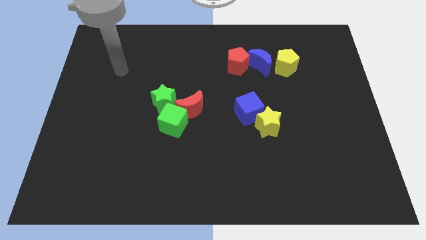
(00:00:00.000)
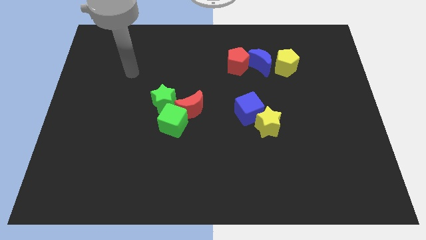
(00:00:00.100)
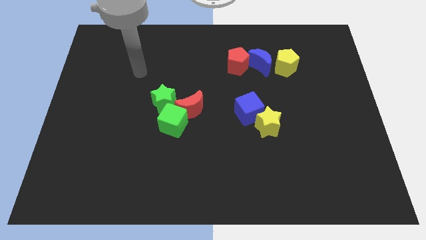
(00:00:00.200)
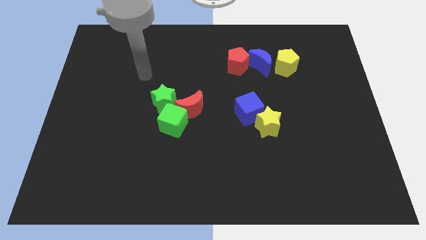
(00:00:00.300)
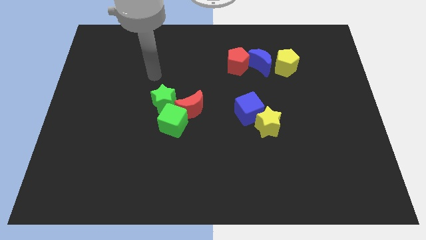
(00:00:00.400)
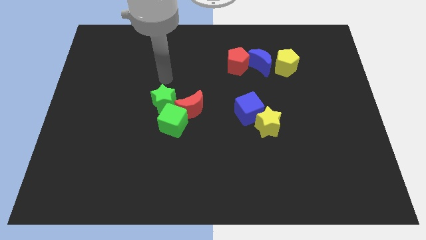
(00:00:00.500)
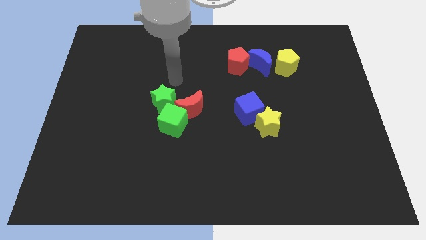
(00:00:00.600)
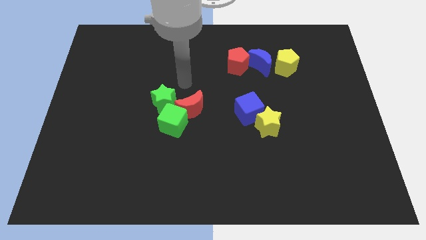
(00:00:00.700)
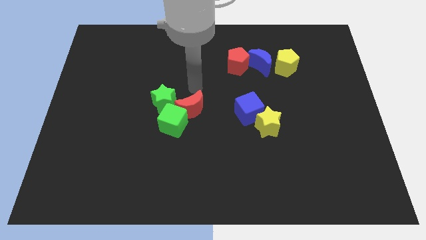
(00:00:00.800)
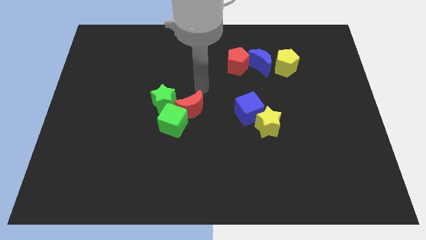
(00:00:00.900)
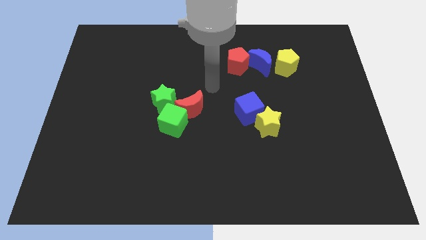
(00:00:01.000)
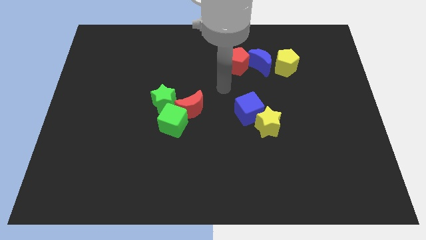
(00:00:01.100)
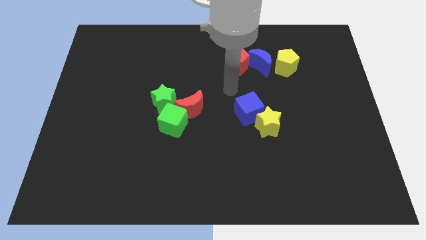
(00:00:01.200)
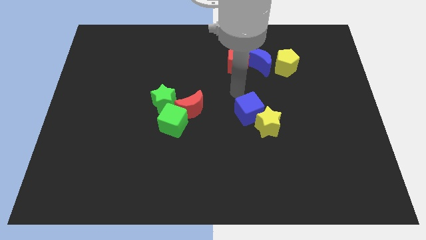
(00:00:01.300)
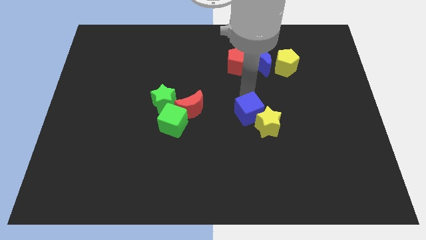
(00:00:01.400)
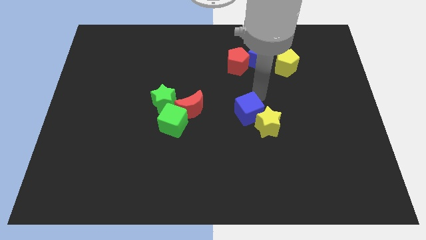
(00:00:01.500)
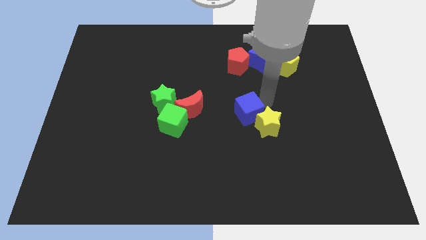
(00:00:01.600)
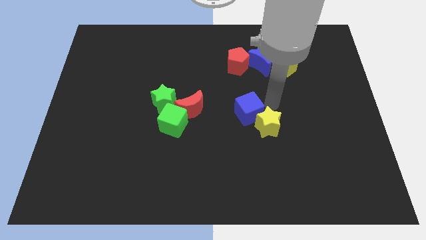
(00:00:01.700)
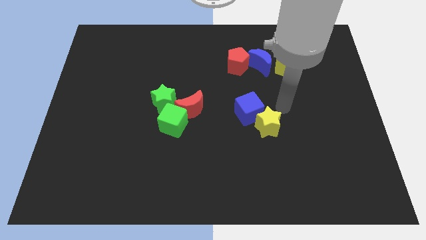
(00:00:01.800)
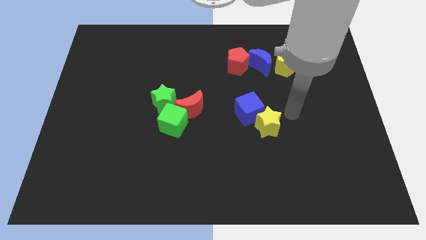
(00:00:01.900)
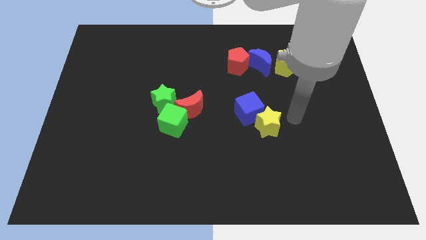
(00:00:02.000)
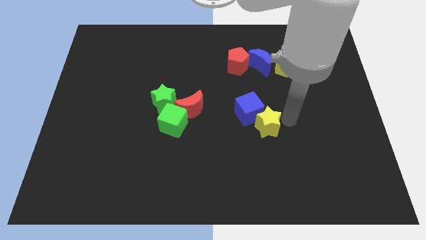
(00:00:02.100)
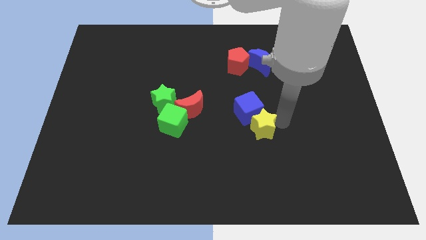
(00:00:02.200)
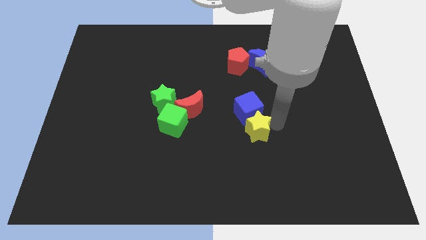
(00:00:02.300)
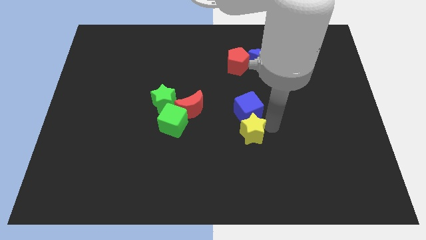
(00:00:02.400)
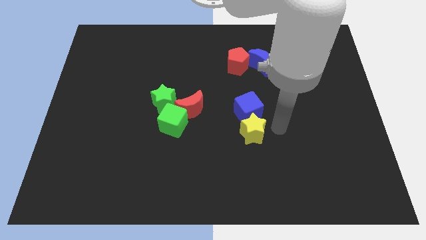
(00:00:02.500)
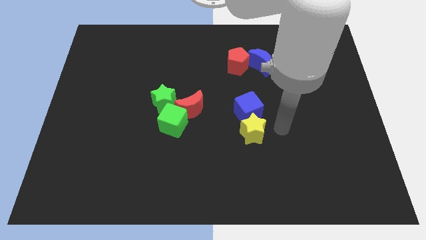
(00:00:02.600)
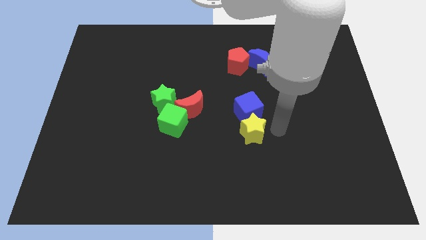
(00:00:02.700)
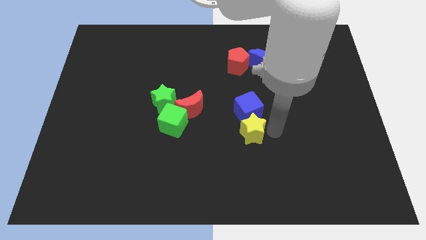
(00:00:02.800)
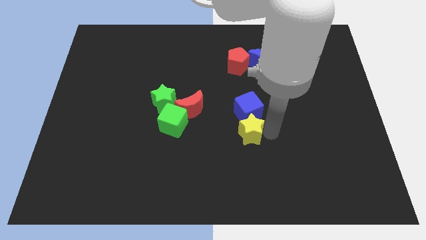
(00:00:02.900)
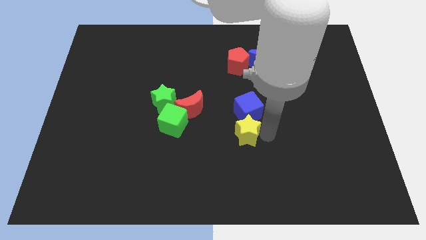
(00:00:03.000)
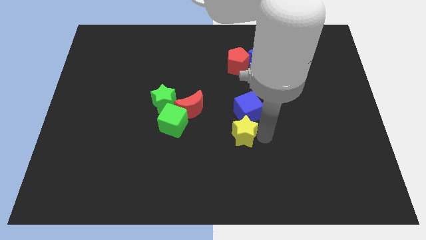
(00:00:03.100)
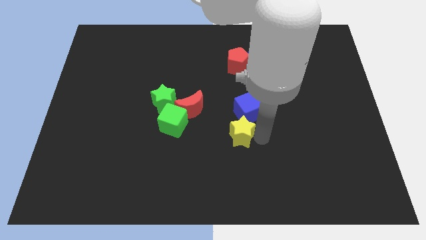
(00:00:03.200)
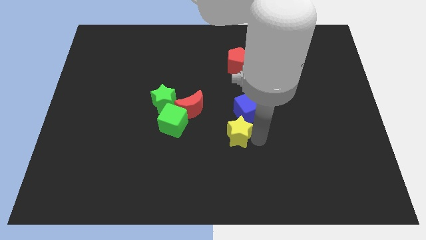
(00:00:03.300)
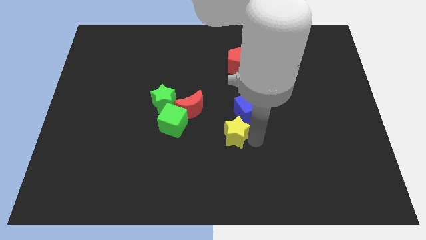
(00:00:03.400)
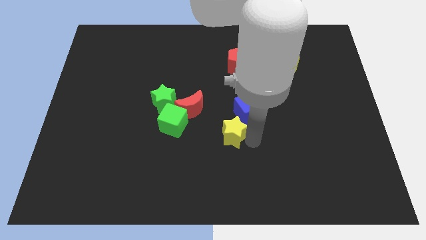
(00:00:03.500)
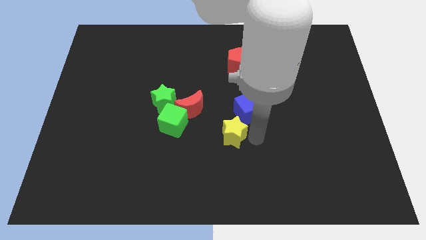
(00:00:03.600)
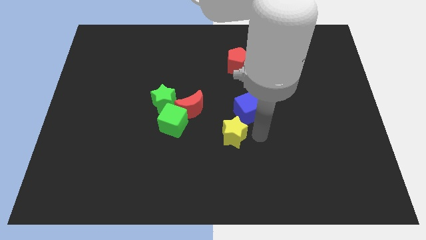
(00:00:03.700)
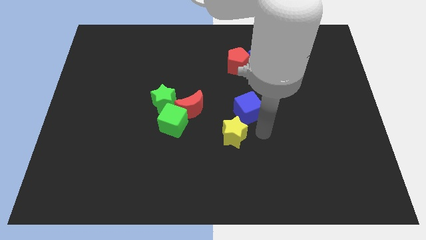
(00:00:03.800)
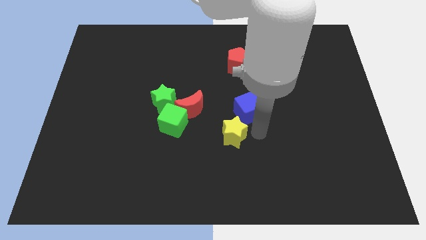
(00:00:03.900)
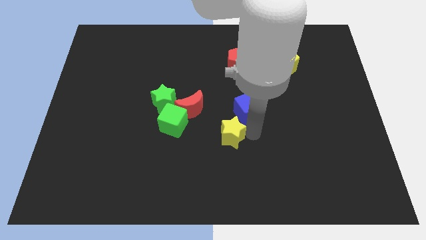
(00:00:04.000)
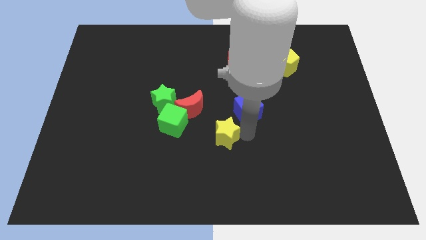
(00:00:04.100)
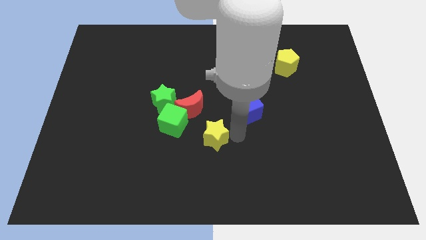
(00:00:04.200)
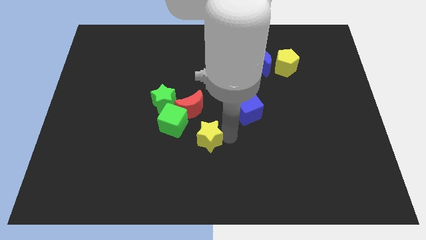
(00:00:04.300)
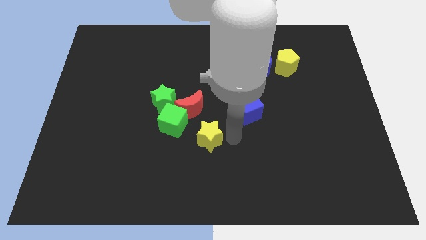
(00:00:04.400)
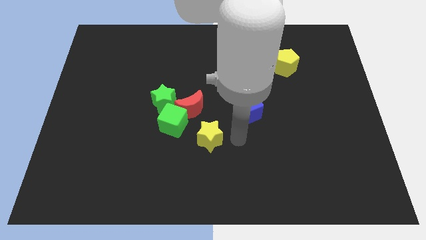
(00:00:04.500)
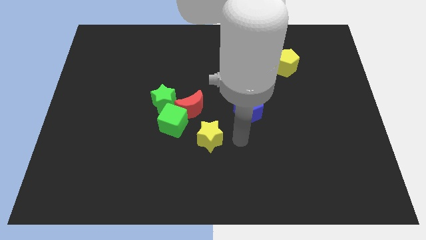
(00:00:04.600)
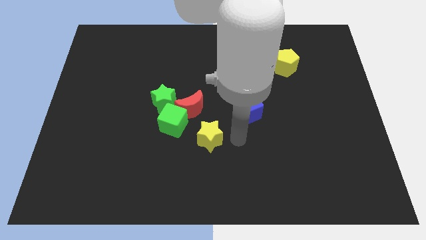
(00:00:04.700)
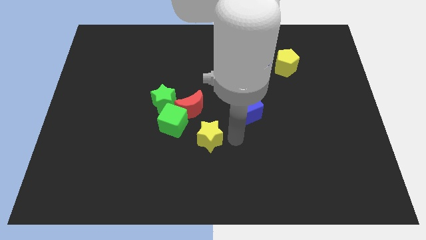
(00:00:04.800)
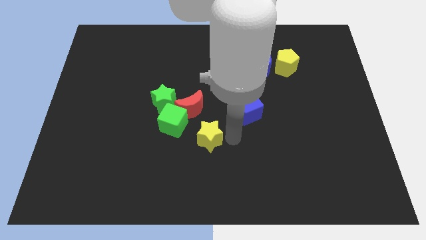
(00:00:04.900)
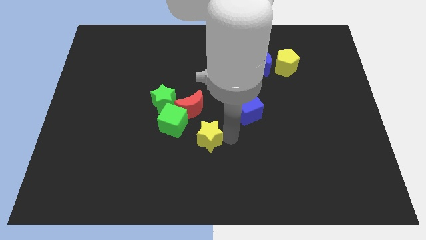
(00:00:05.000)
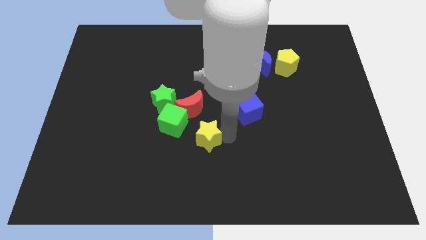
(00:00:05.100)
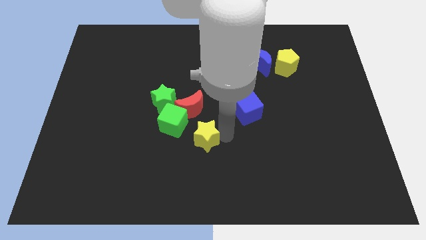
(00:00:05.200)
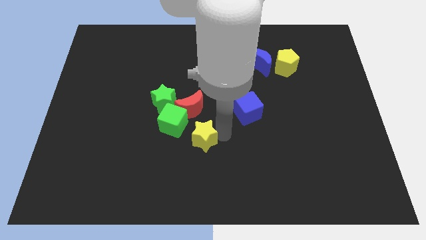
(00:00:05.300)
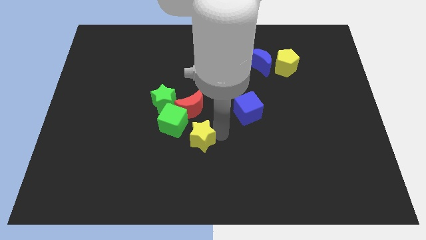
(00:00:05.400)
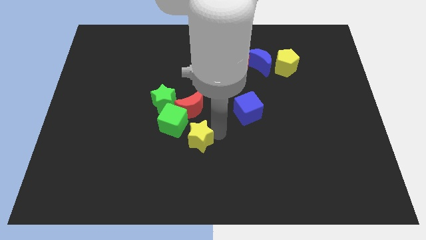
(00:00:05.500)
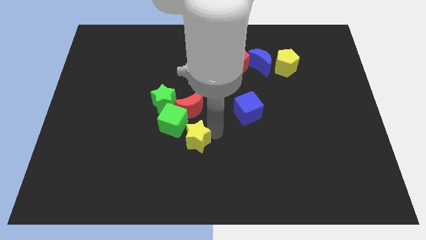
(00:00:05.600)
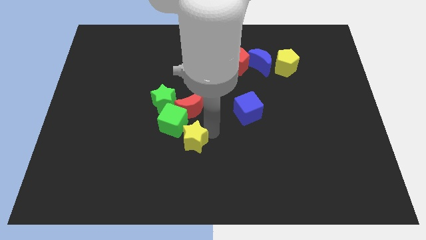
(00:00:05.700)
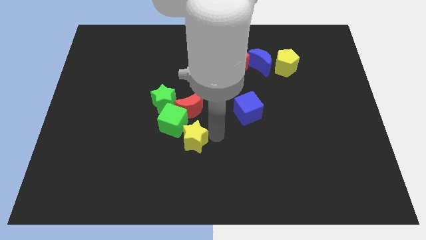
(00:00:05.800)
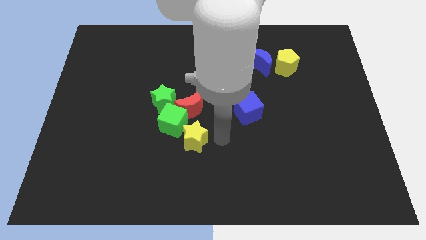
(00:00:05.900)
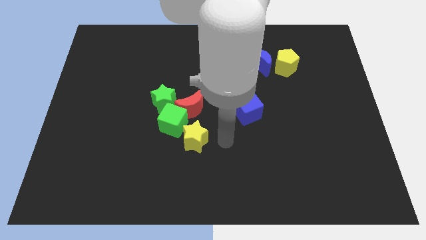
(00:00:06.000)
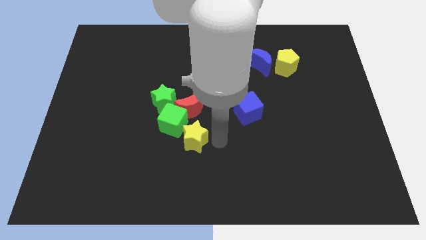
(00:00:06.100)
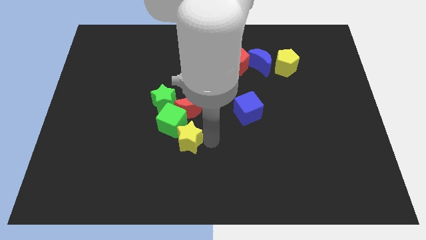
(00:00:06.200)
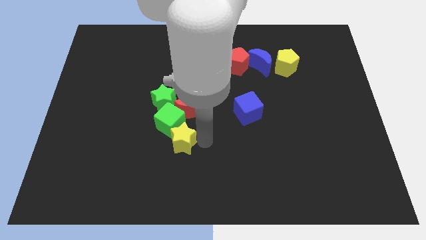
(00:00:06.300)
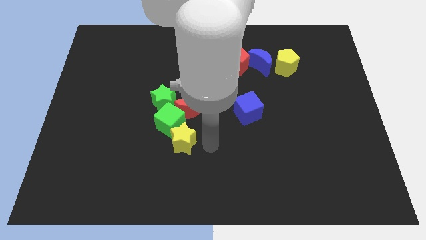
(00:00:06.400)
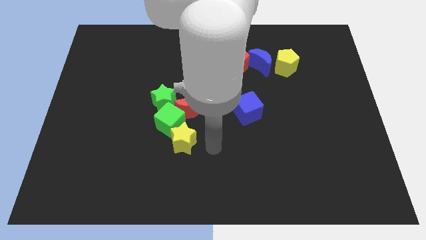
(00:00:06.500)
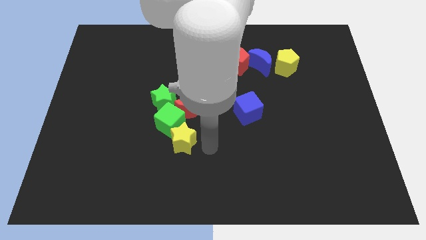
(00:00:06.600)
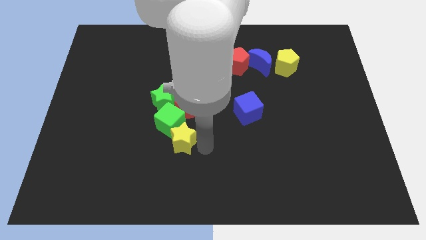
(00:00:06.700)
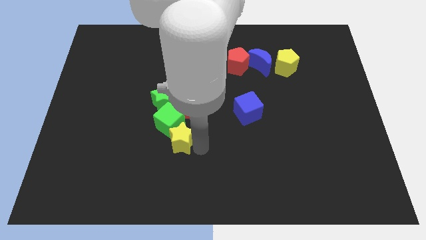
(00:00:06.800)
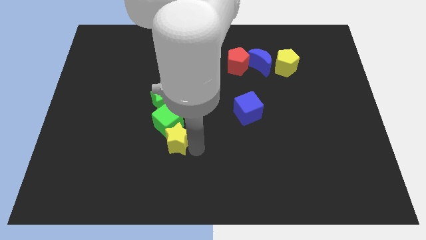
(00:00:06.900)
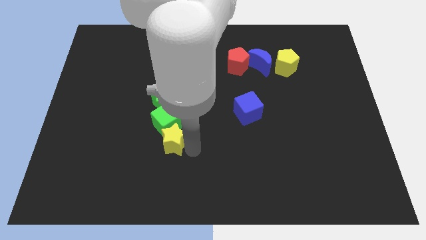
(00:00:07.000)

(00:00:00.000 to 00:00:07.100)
push the yellow star left

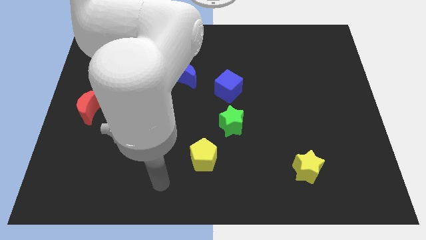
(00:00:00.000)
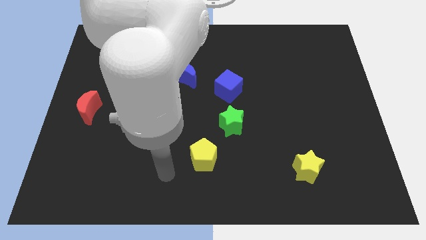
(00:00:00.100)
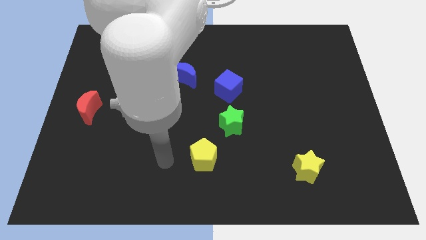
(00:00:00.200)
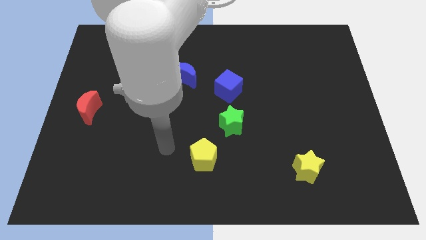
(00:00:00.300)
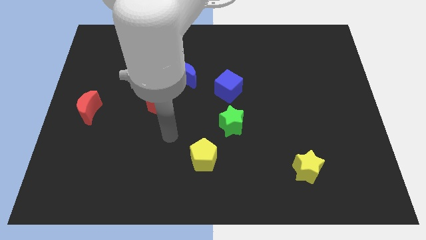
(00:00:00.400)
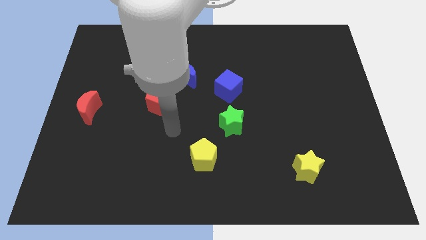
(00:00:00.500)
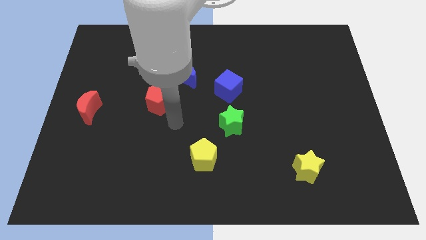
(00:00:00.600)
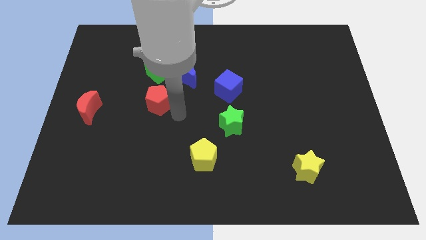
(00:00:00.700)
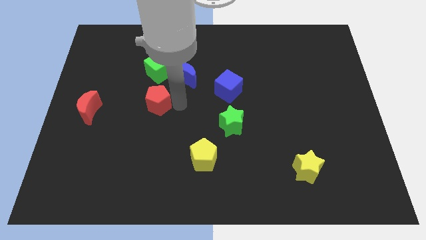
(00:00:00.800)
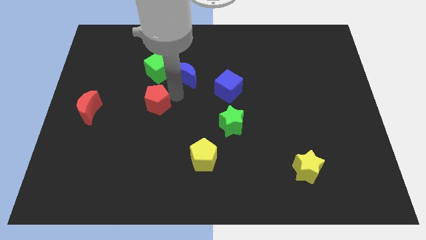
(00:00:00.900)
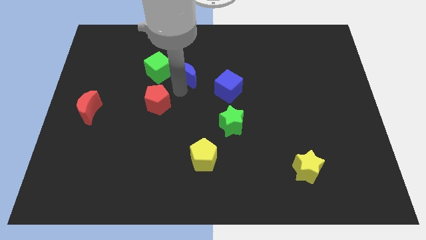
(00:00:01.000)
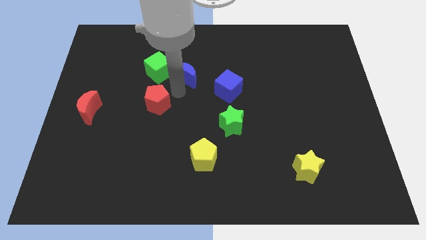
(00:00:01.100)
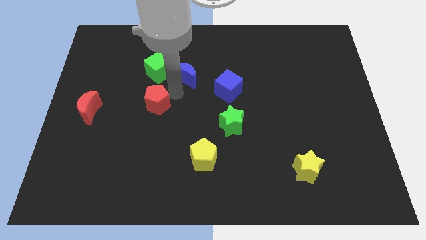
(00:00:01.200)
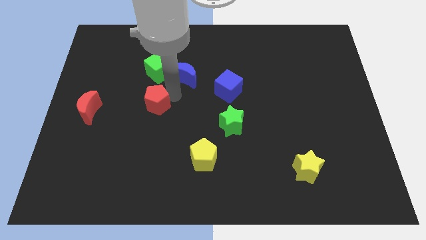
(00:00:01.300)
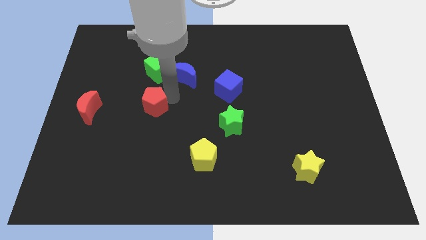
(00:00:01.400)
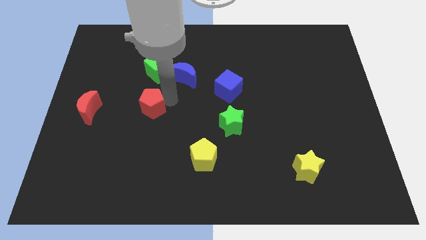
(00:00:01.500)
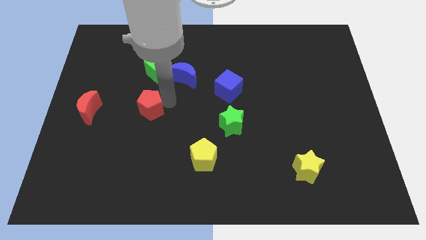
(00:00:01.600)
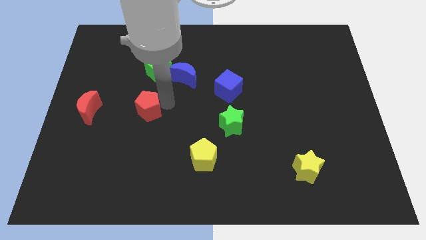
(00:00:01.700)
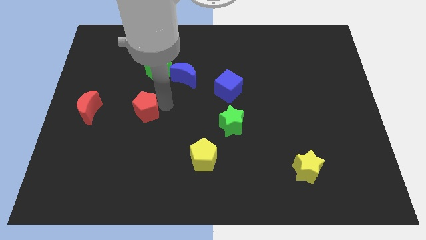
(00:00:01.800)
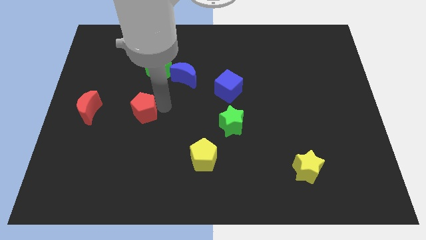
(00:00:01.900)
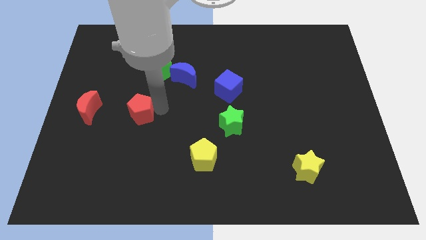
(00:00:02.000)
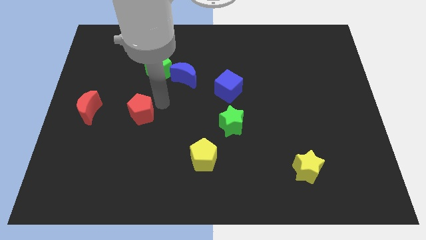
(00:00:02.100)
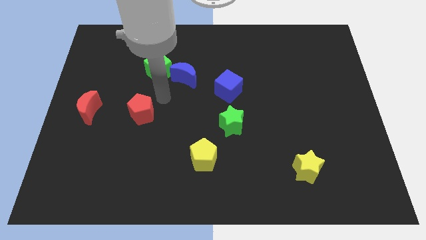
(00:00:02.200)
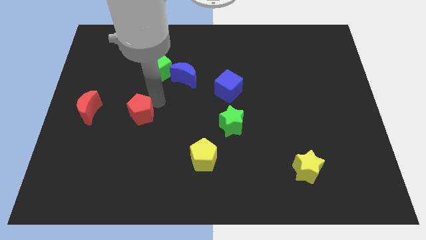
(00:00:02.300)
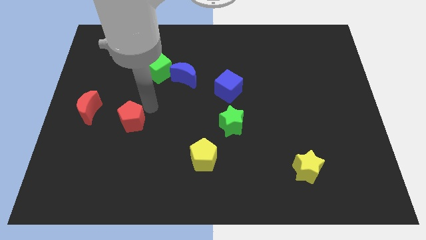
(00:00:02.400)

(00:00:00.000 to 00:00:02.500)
move the red pentagon downwards and then to the left a bit
